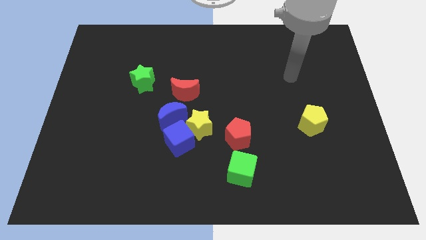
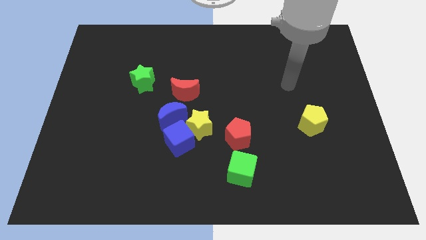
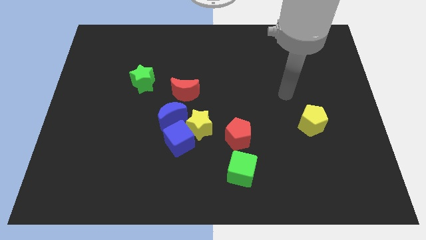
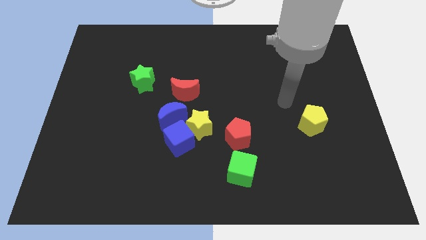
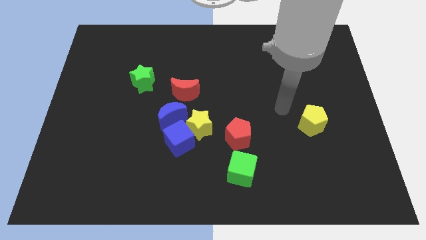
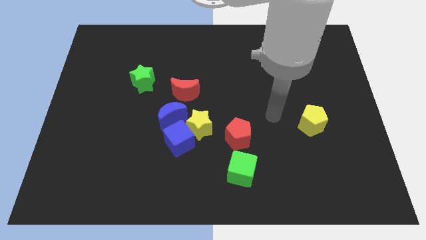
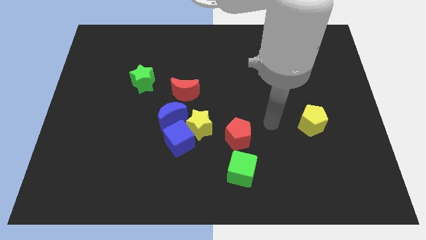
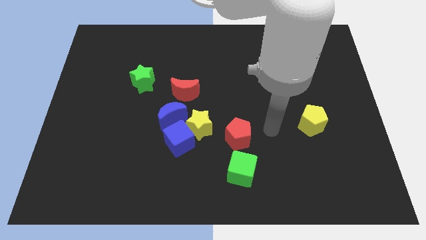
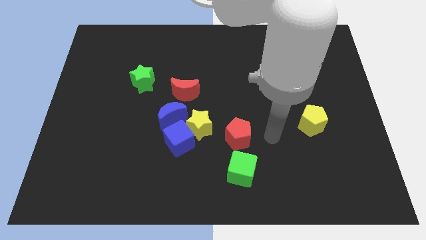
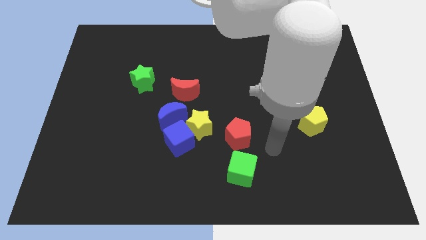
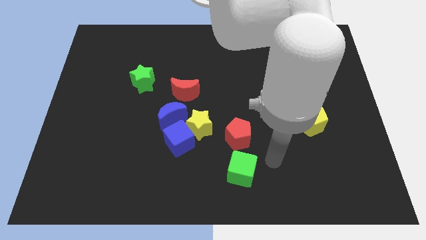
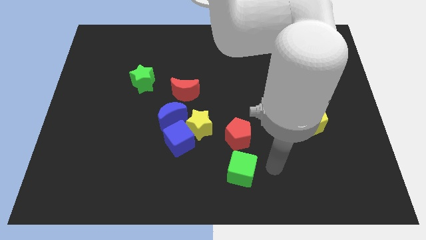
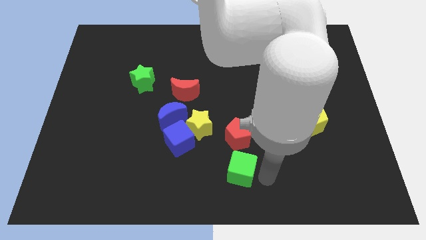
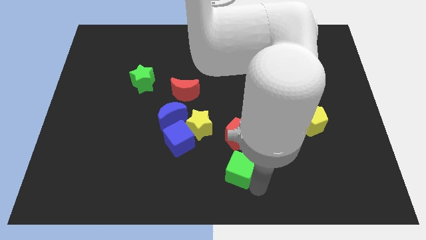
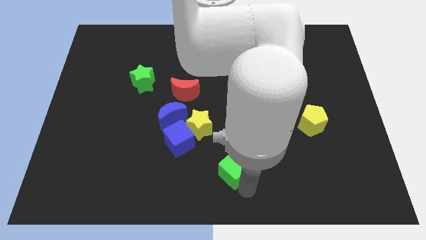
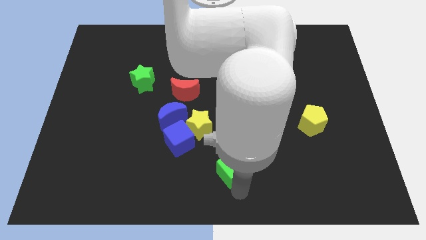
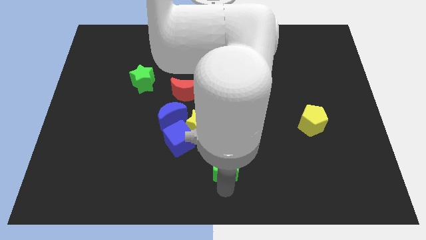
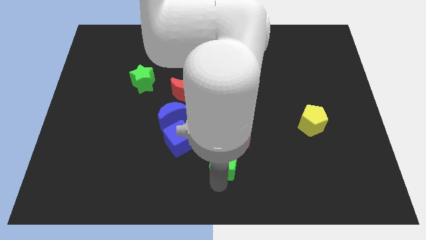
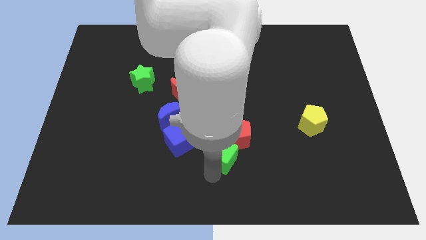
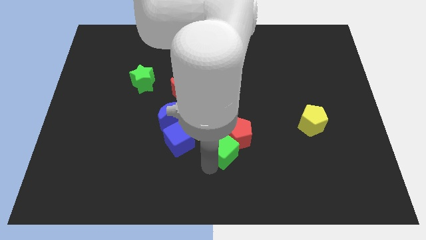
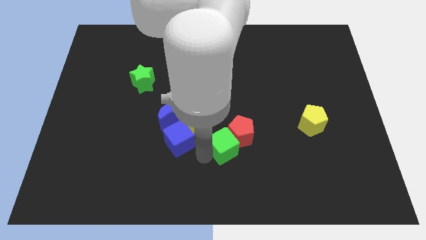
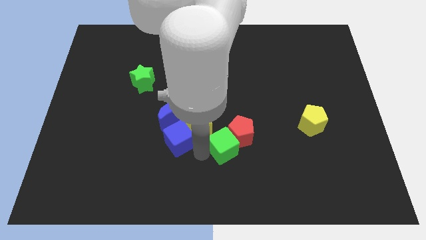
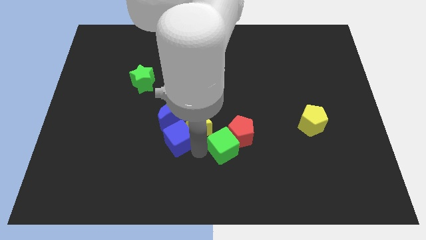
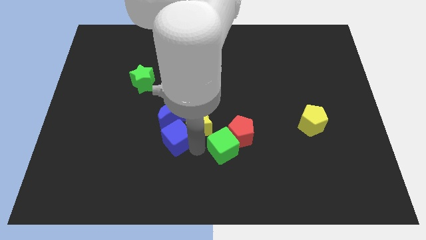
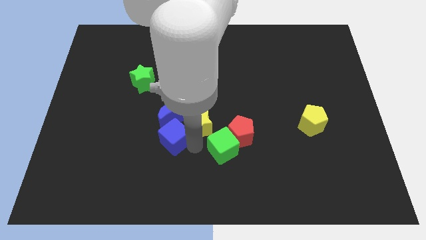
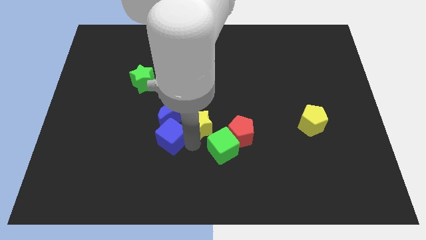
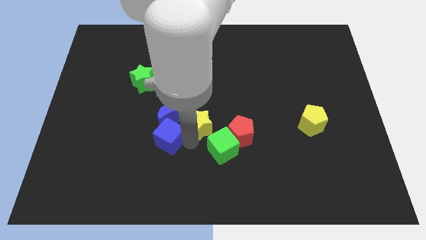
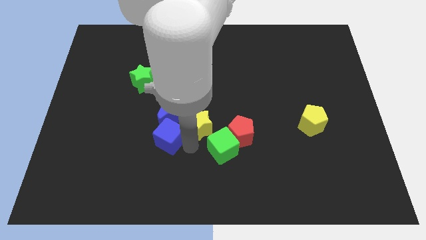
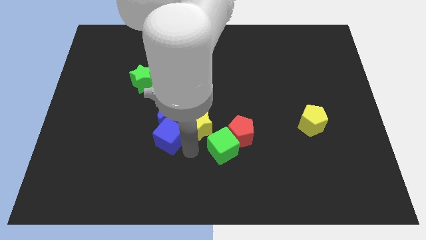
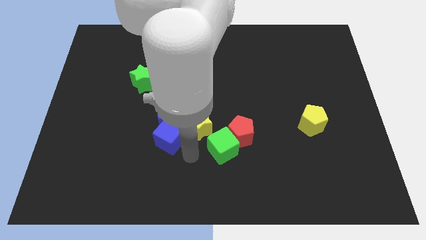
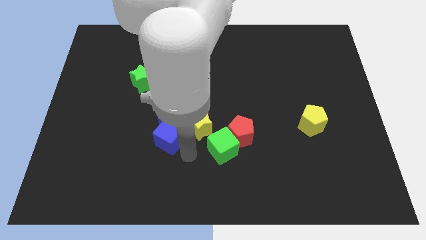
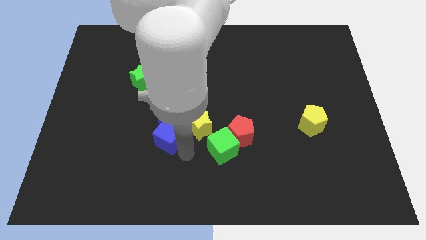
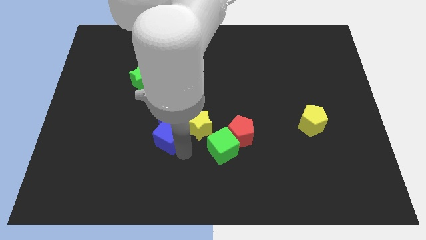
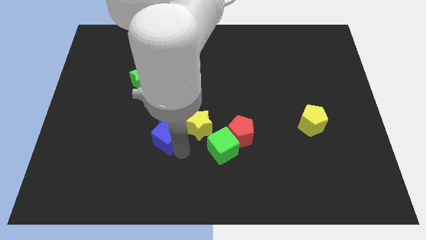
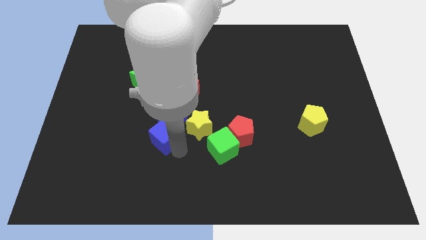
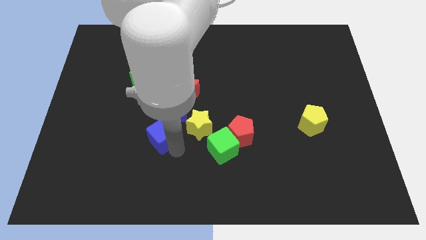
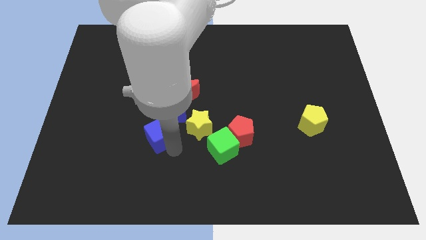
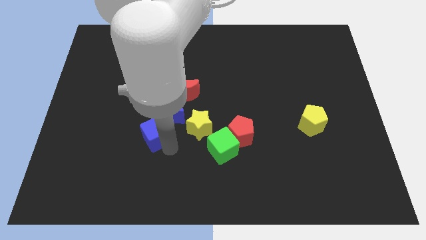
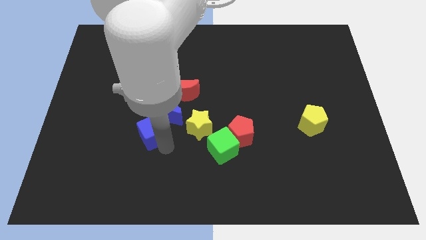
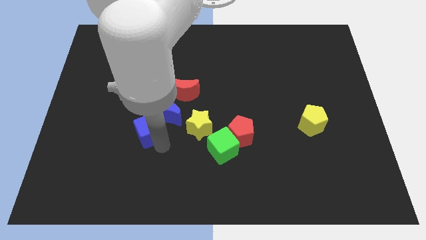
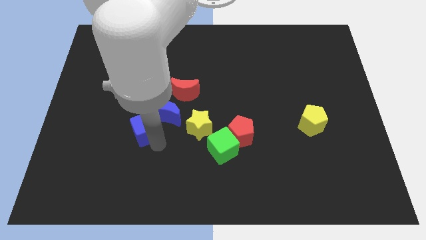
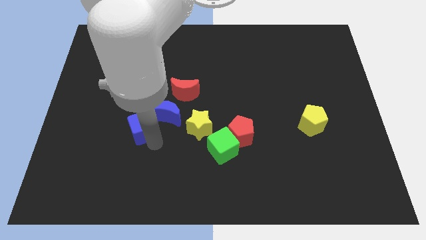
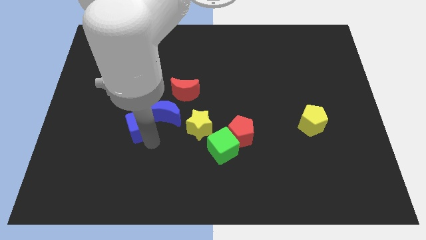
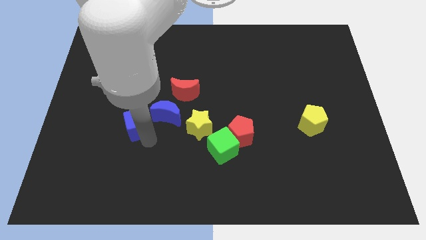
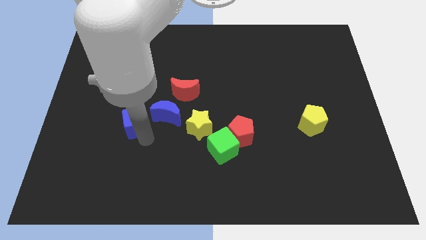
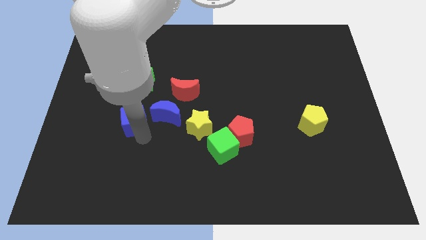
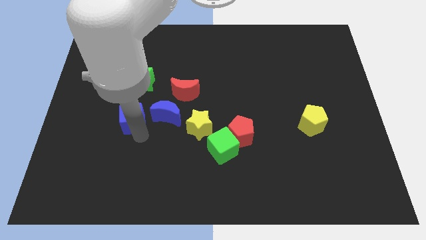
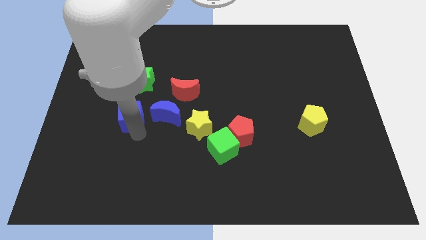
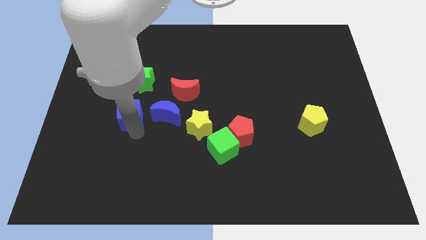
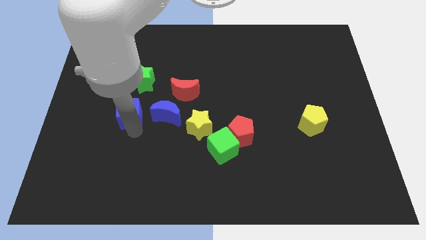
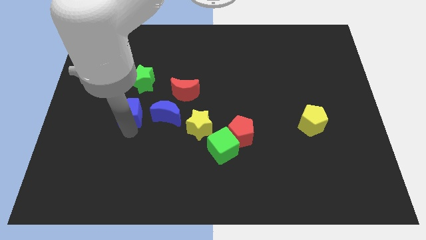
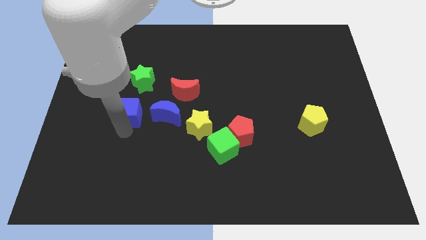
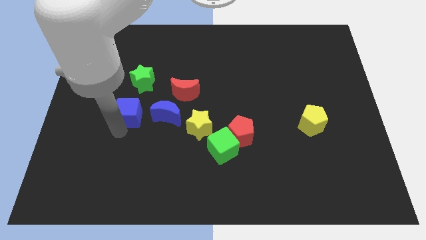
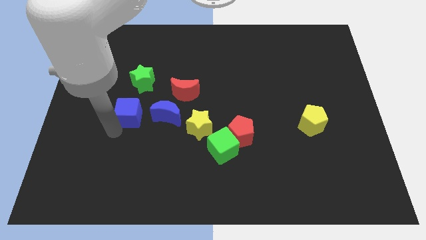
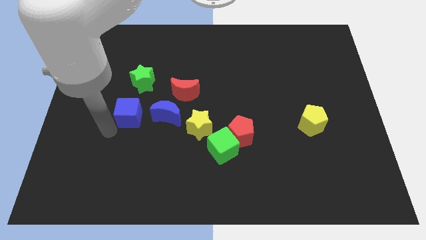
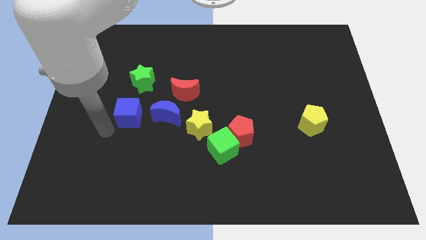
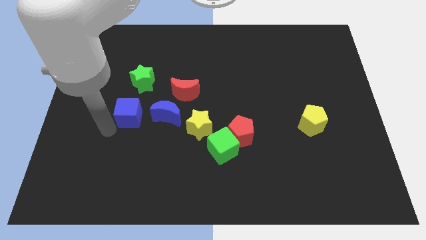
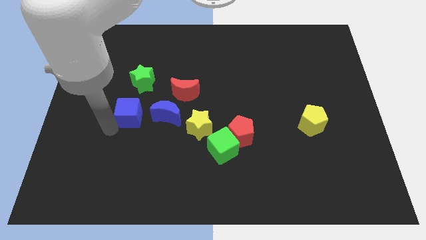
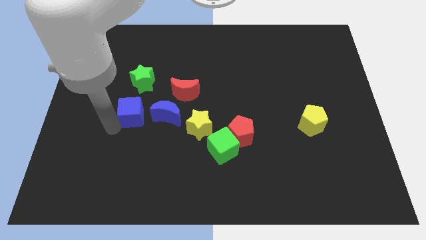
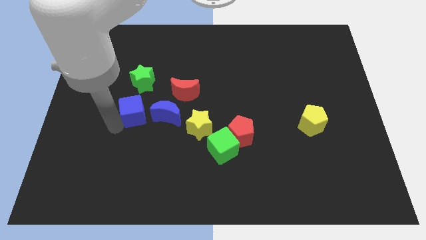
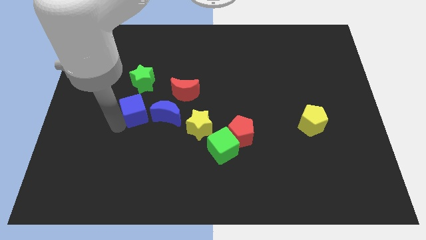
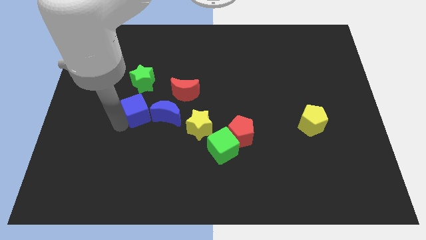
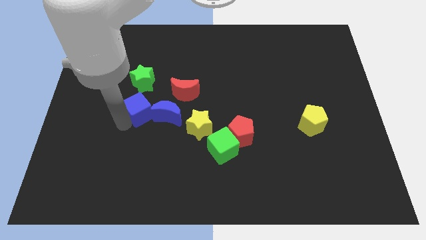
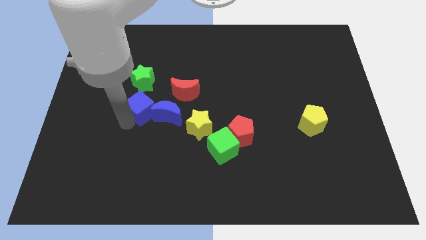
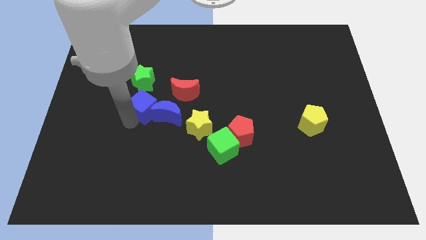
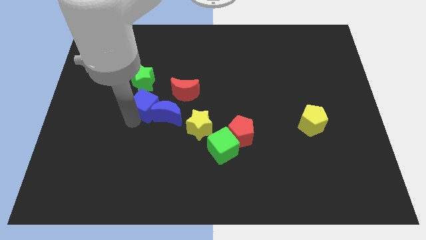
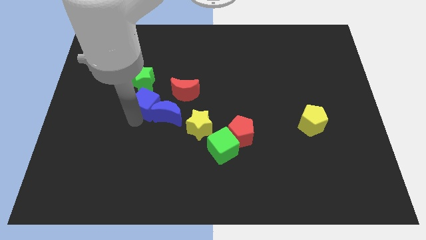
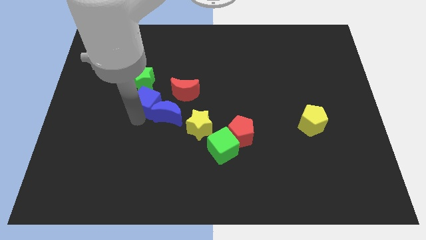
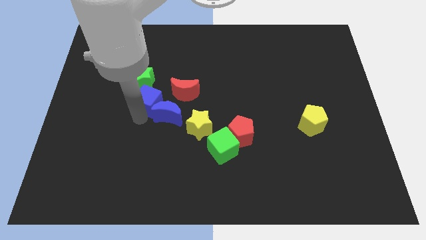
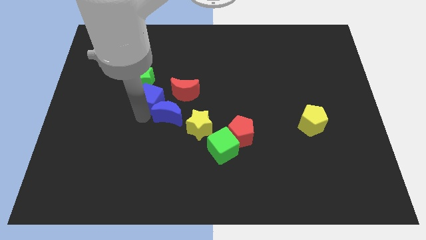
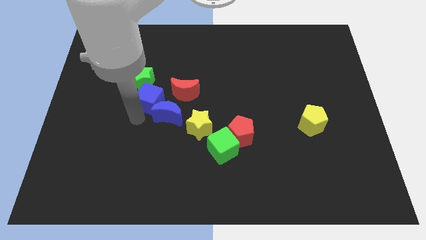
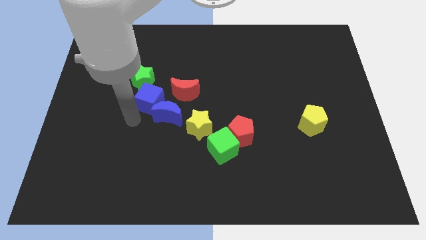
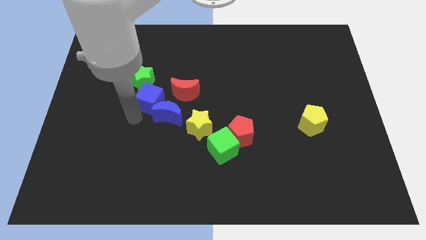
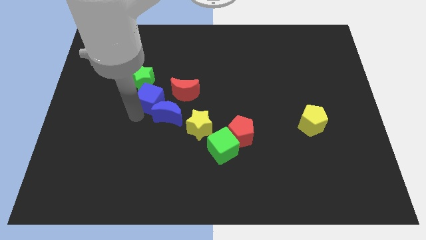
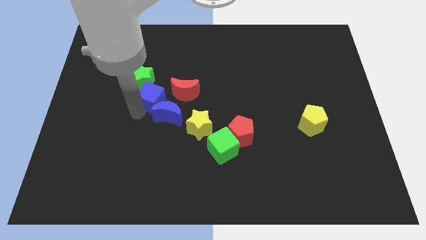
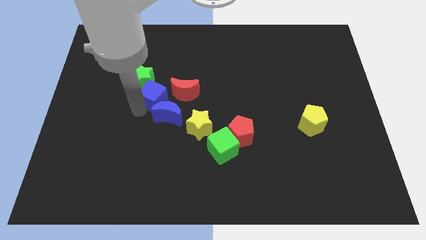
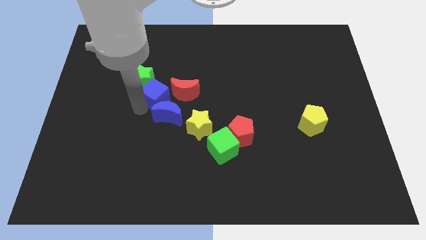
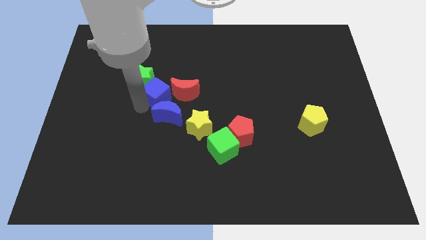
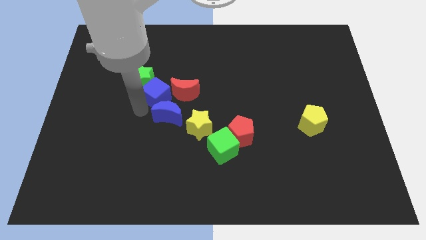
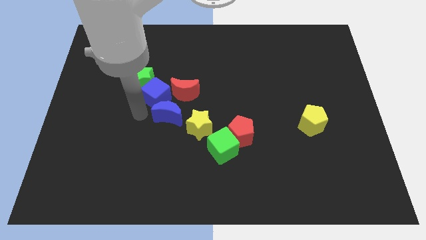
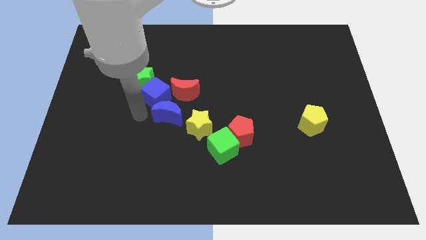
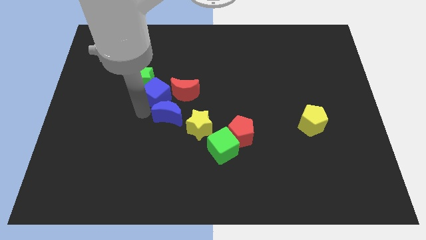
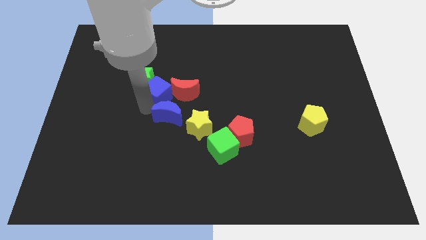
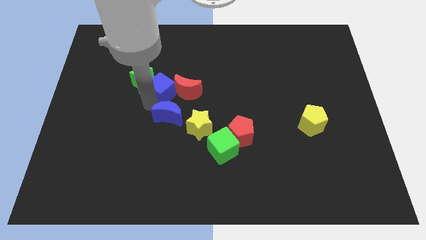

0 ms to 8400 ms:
slide the blue cube to the middle
